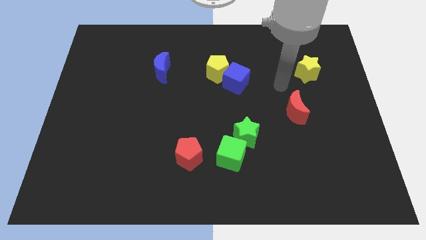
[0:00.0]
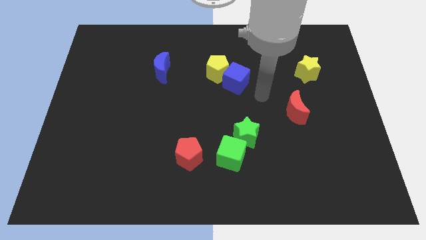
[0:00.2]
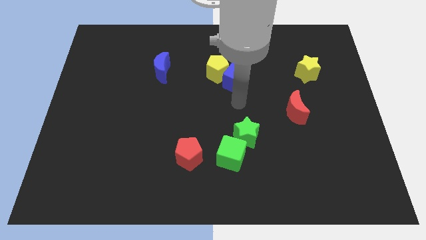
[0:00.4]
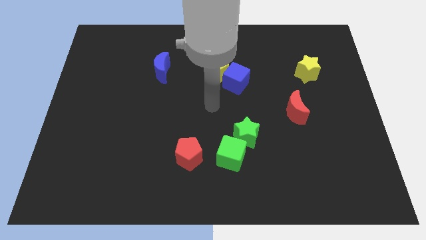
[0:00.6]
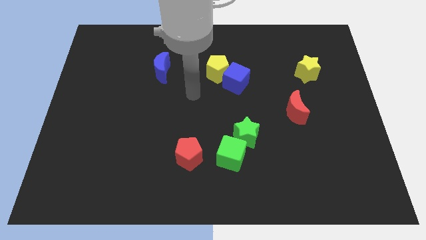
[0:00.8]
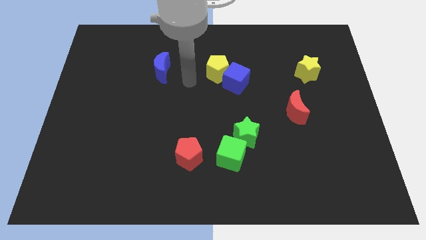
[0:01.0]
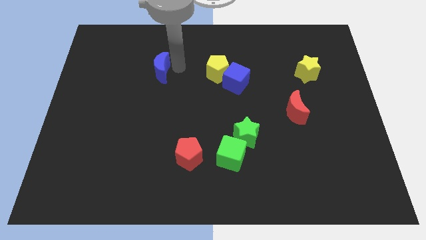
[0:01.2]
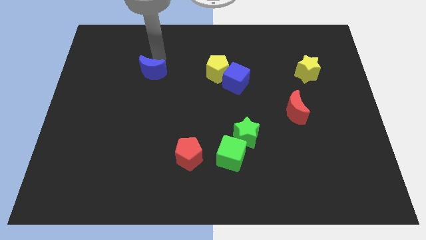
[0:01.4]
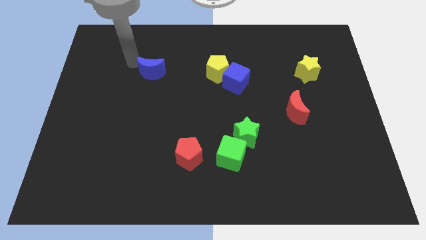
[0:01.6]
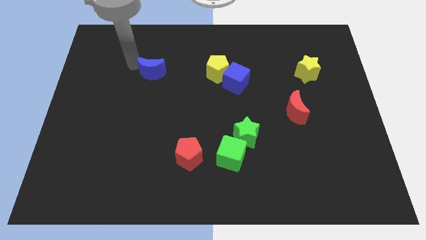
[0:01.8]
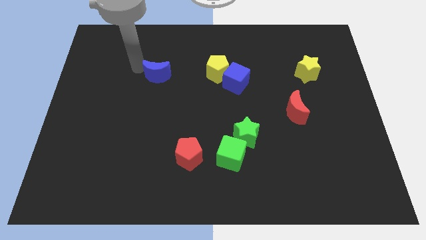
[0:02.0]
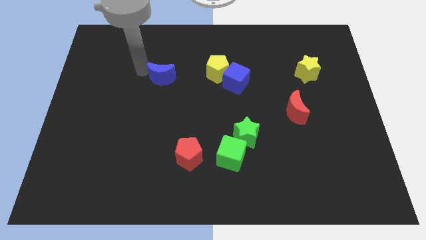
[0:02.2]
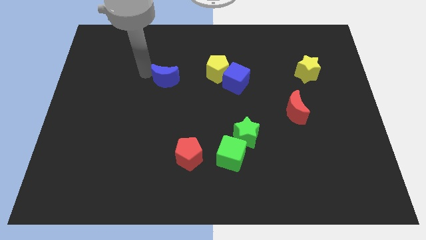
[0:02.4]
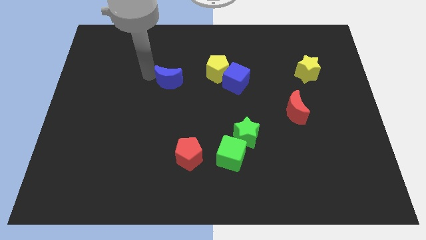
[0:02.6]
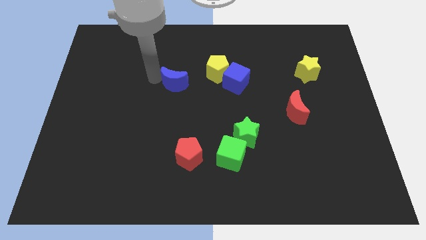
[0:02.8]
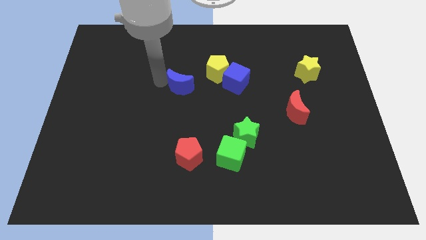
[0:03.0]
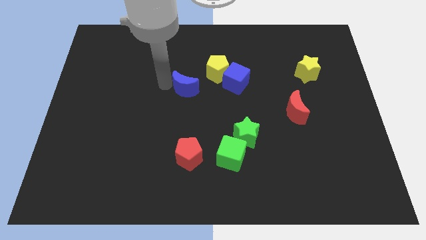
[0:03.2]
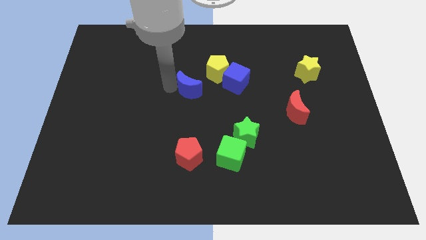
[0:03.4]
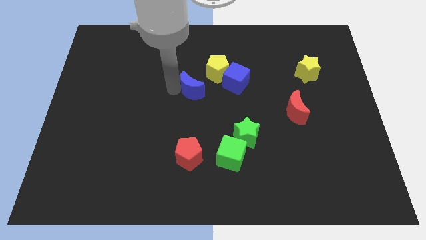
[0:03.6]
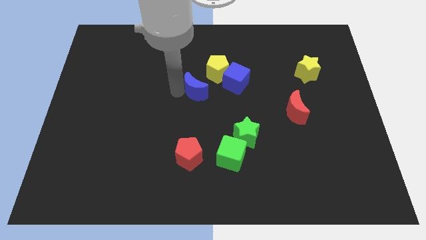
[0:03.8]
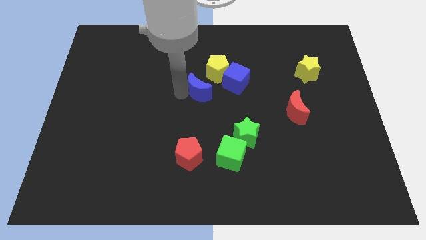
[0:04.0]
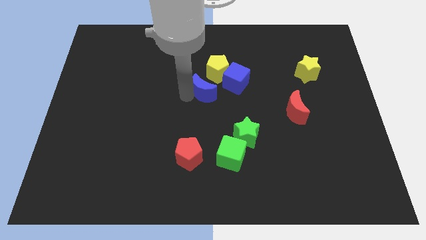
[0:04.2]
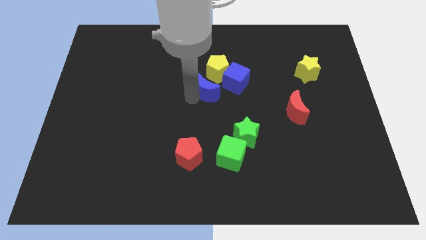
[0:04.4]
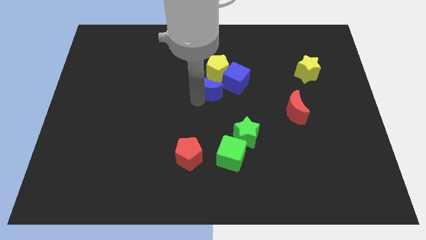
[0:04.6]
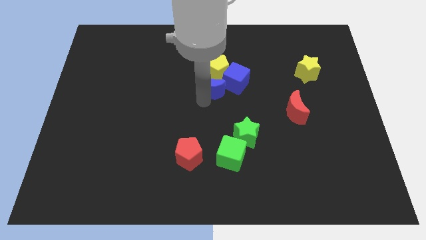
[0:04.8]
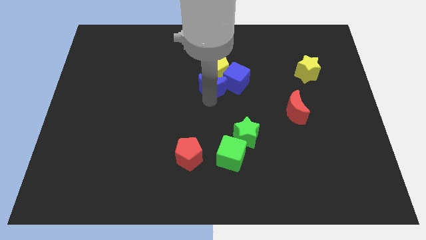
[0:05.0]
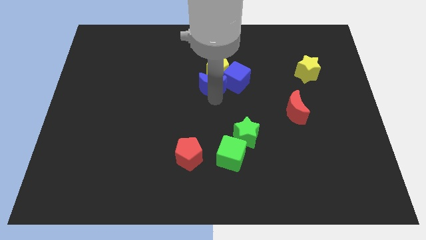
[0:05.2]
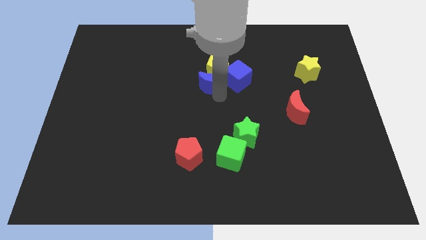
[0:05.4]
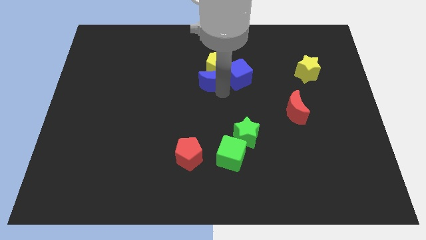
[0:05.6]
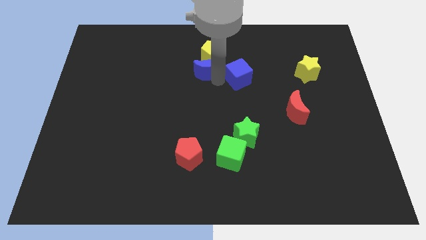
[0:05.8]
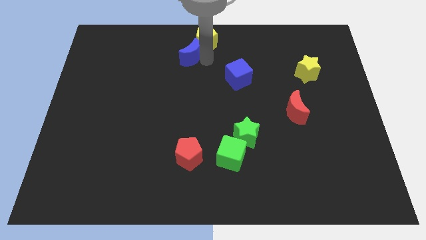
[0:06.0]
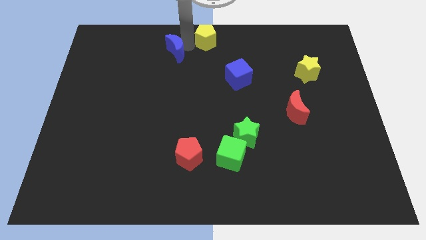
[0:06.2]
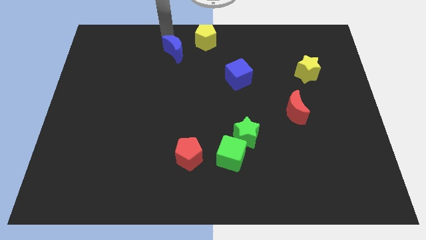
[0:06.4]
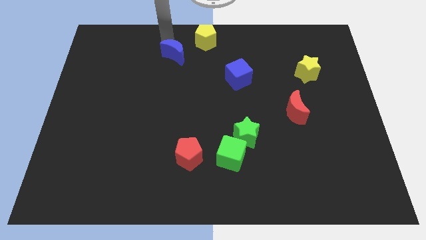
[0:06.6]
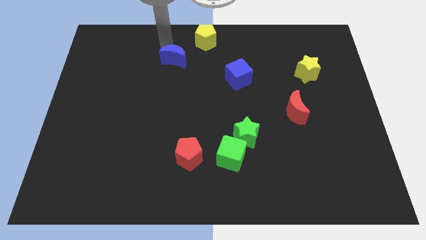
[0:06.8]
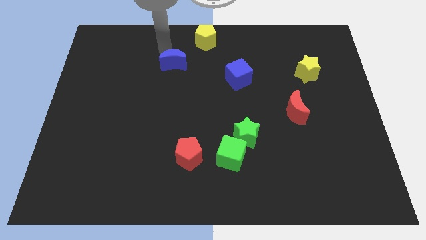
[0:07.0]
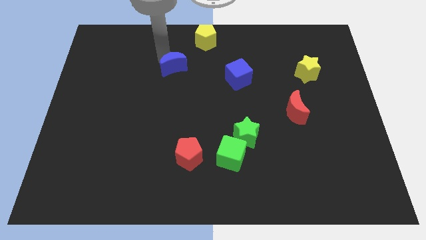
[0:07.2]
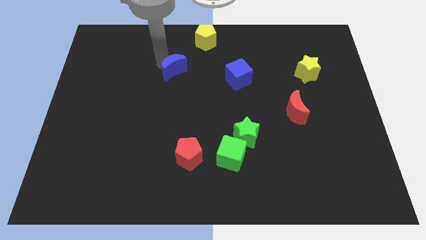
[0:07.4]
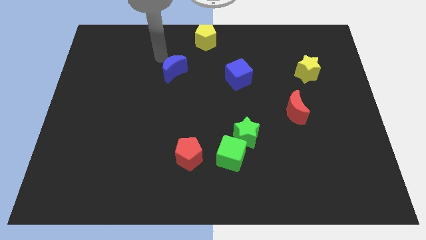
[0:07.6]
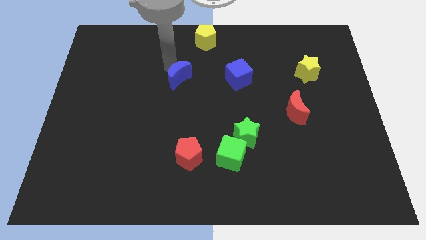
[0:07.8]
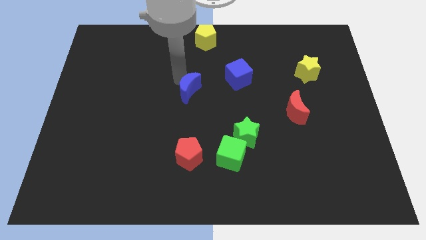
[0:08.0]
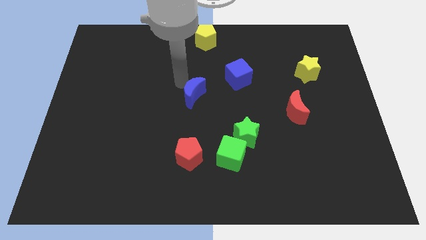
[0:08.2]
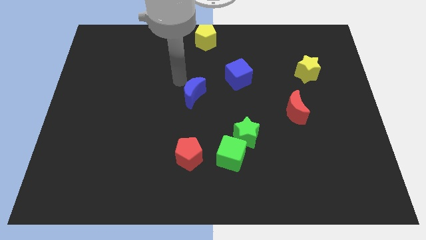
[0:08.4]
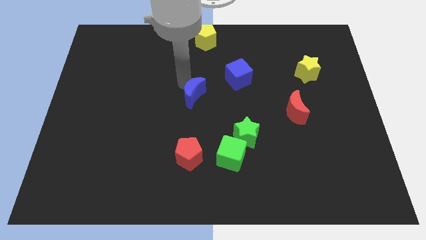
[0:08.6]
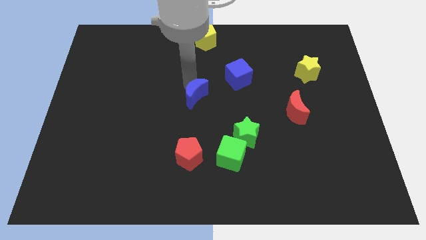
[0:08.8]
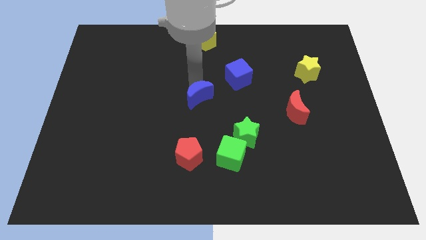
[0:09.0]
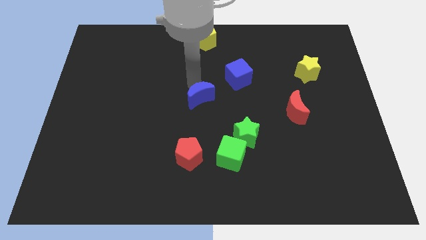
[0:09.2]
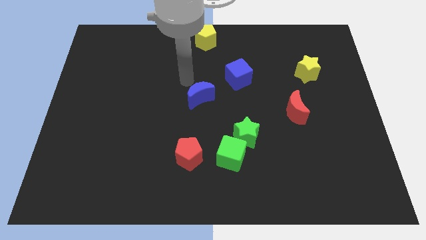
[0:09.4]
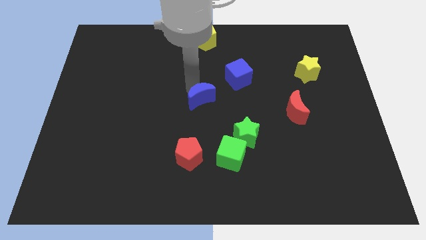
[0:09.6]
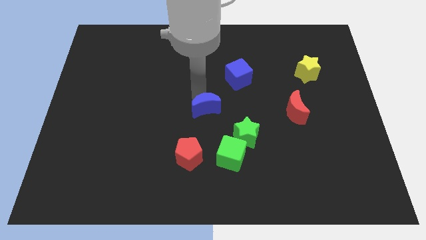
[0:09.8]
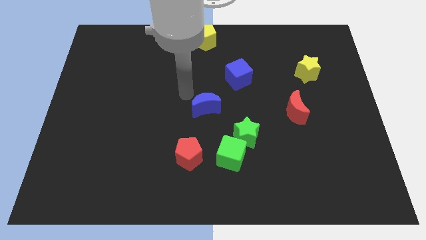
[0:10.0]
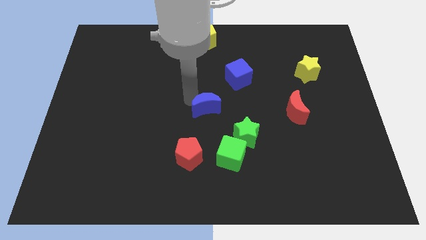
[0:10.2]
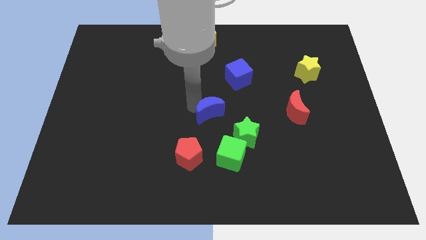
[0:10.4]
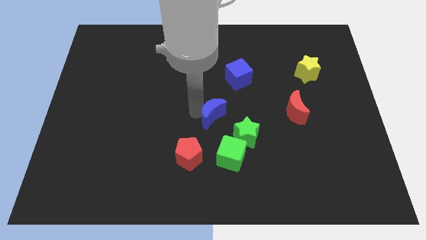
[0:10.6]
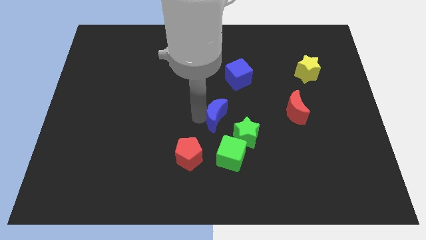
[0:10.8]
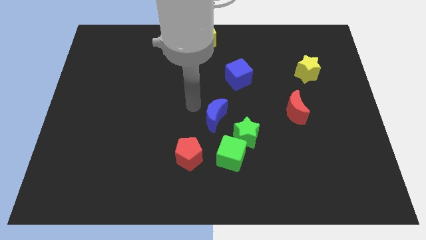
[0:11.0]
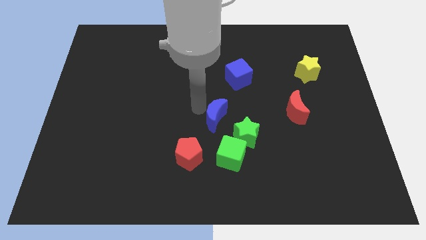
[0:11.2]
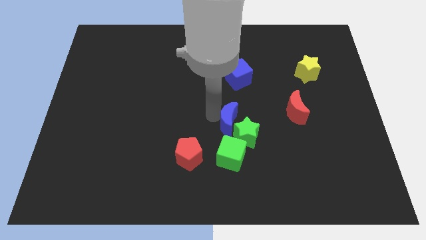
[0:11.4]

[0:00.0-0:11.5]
slide the blue moon towards the green star

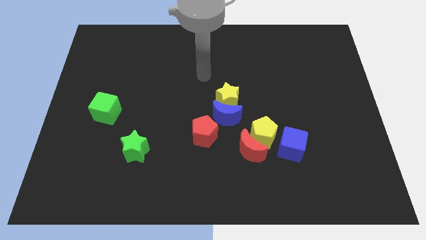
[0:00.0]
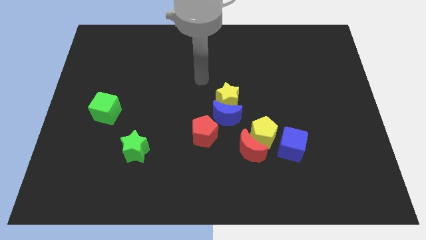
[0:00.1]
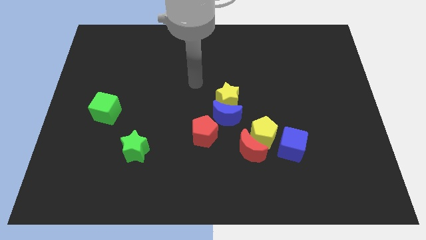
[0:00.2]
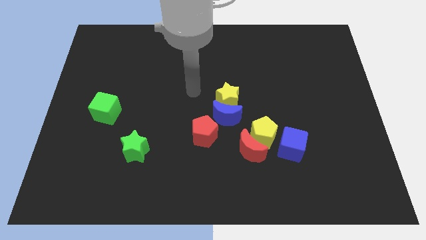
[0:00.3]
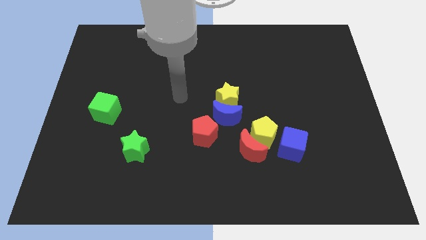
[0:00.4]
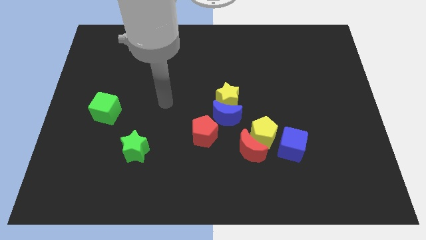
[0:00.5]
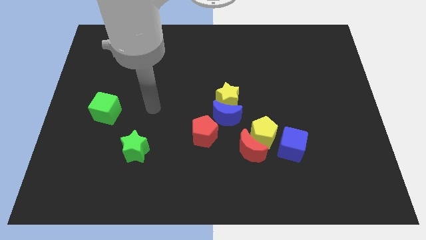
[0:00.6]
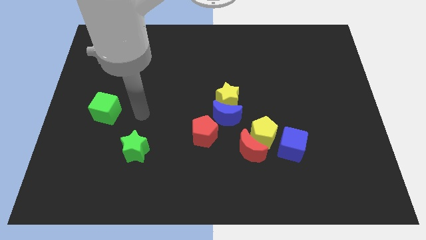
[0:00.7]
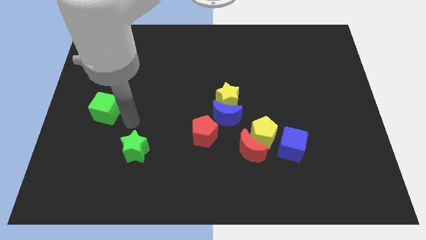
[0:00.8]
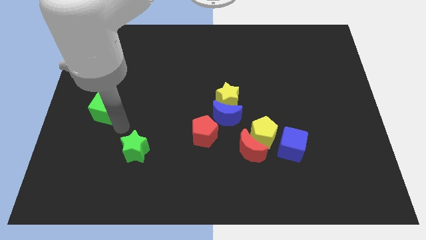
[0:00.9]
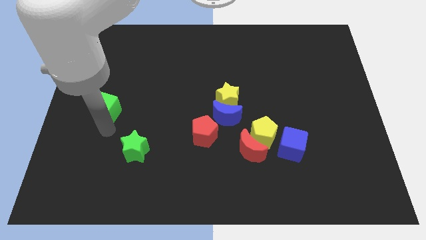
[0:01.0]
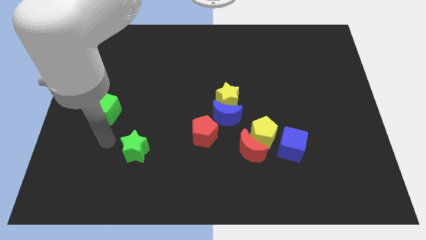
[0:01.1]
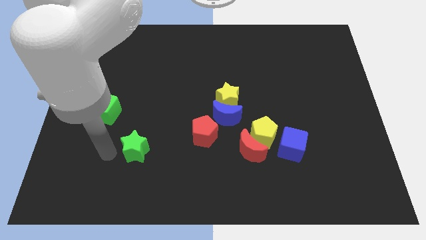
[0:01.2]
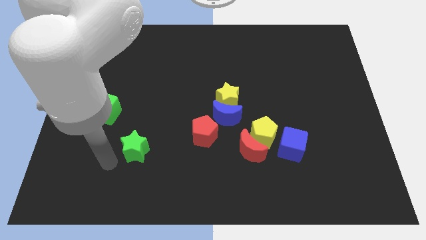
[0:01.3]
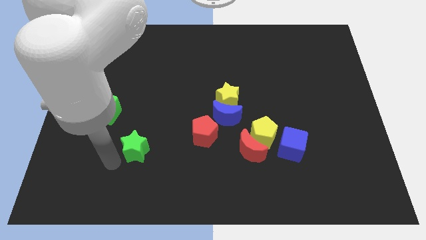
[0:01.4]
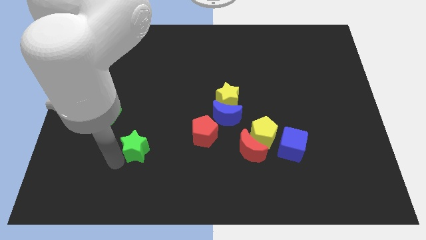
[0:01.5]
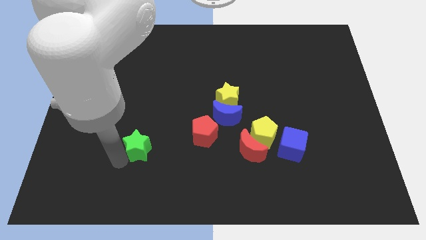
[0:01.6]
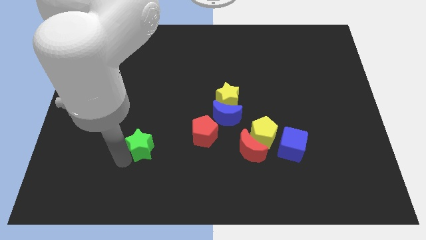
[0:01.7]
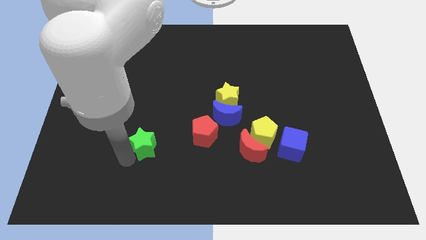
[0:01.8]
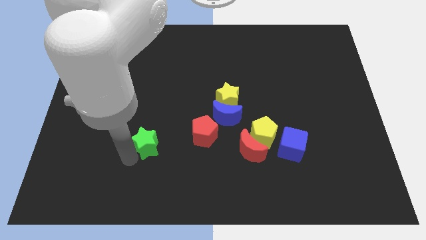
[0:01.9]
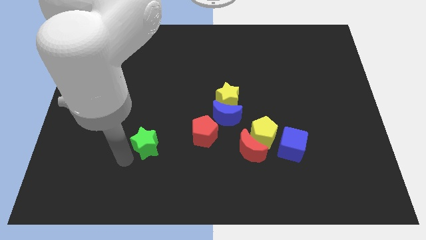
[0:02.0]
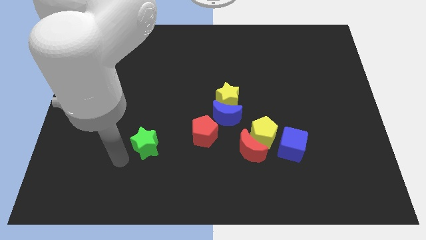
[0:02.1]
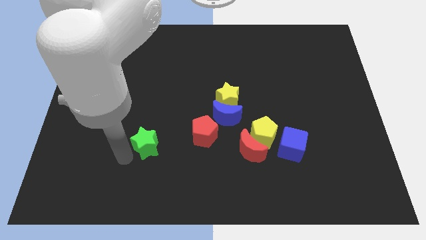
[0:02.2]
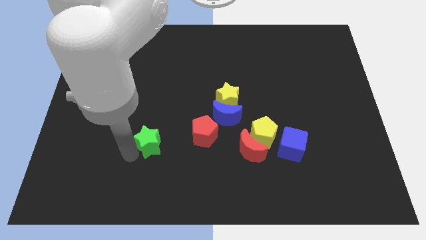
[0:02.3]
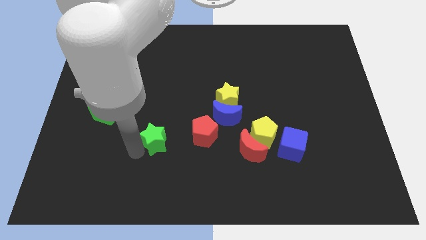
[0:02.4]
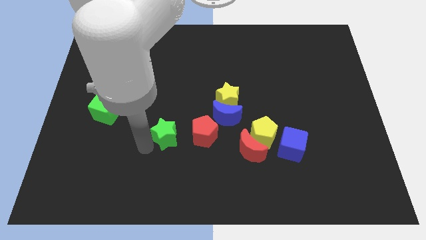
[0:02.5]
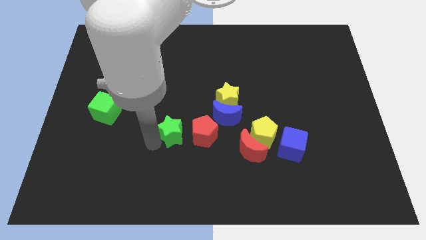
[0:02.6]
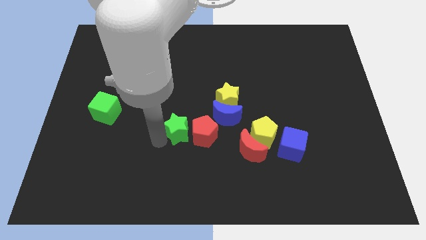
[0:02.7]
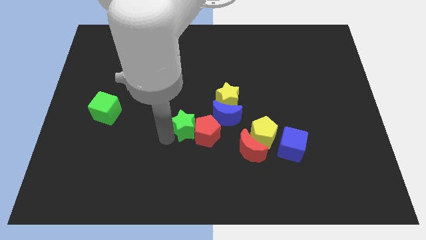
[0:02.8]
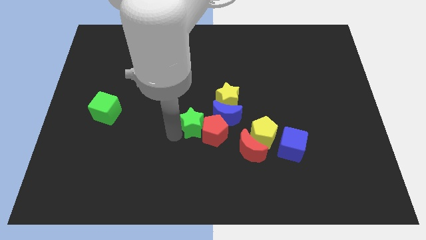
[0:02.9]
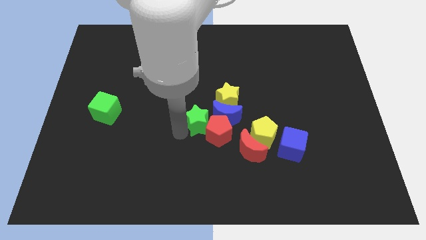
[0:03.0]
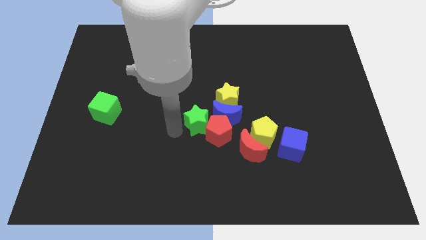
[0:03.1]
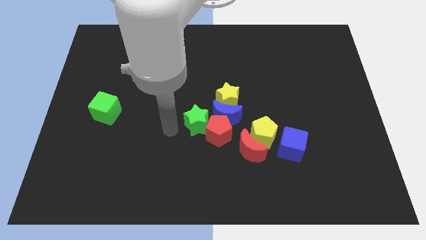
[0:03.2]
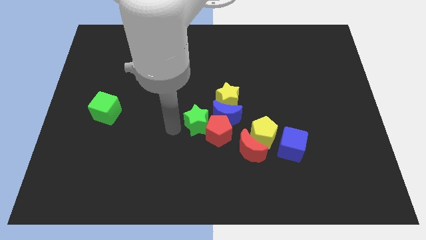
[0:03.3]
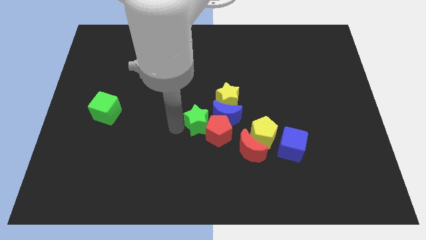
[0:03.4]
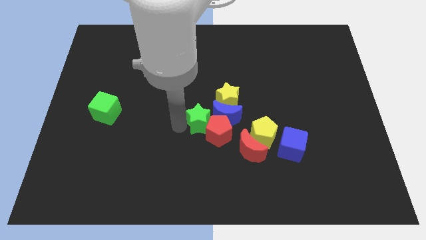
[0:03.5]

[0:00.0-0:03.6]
slide the green star towards the blue moon
